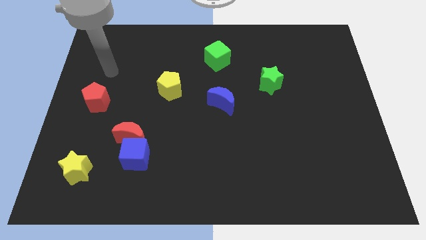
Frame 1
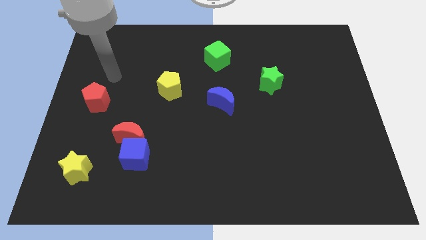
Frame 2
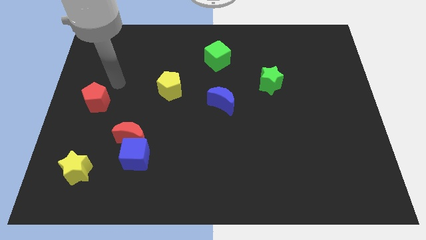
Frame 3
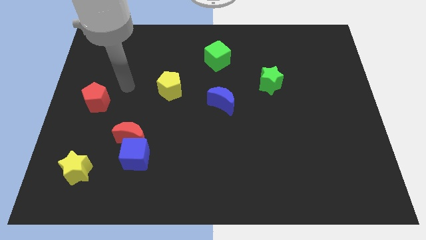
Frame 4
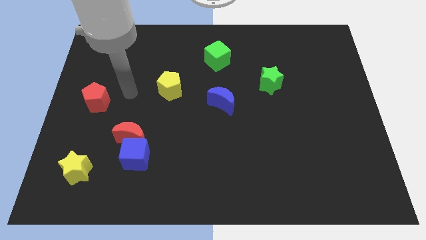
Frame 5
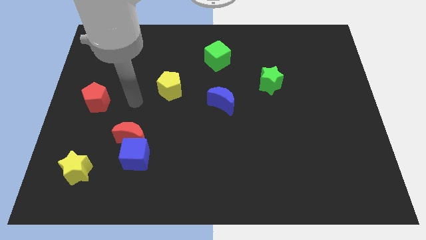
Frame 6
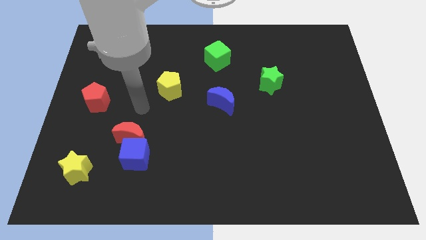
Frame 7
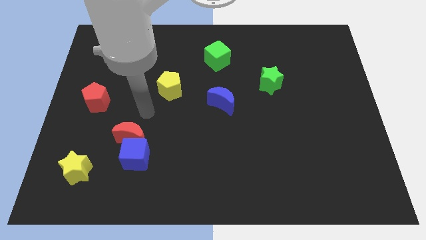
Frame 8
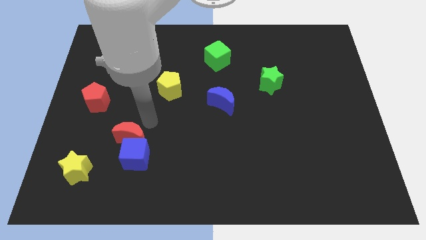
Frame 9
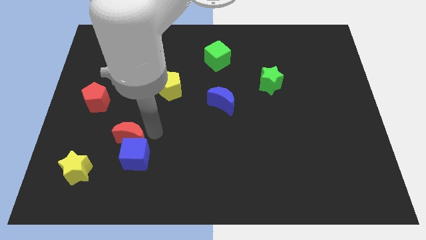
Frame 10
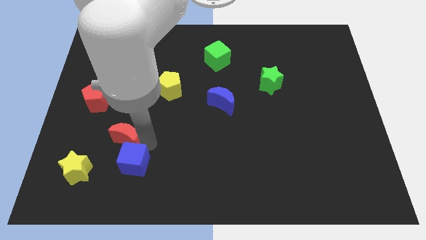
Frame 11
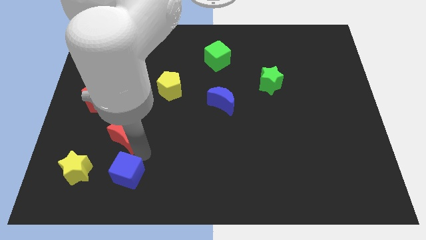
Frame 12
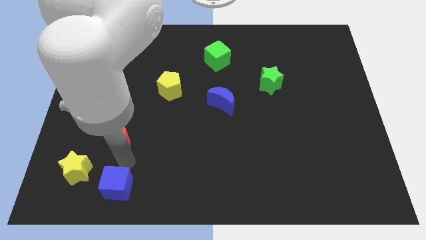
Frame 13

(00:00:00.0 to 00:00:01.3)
move the red moon away from the blue cube

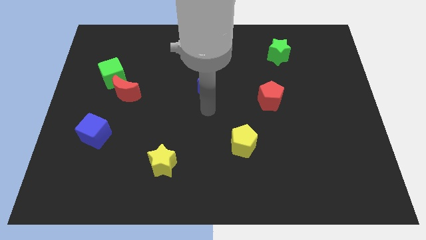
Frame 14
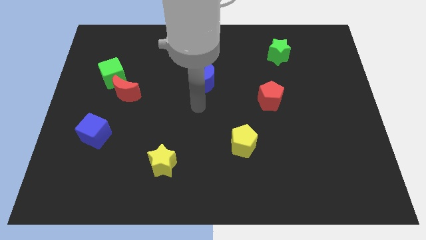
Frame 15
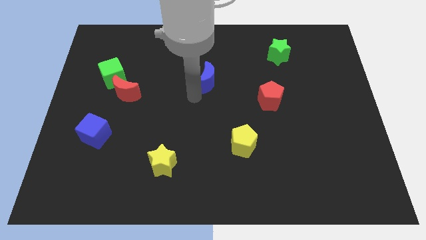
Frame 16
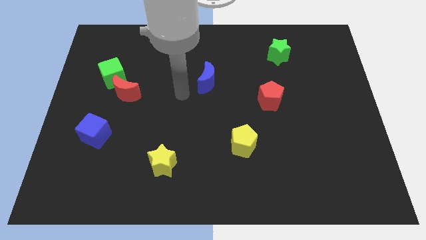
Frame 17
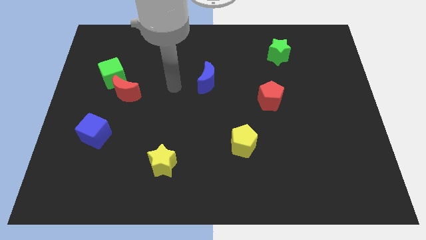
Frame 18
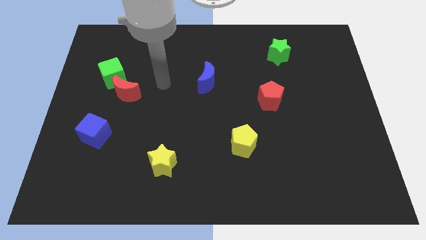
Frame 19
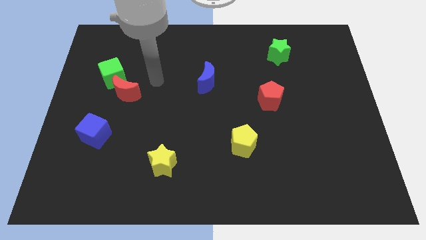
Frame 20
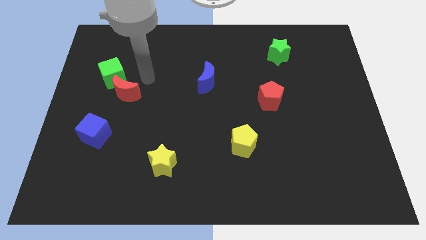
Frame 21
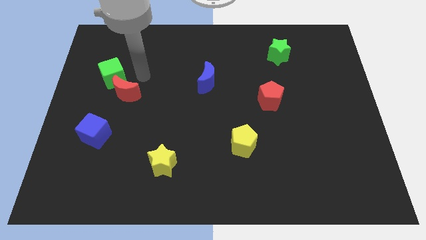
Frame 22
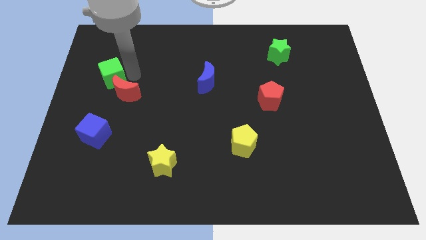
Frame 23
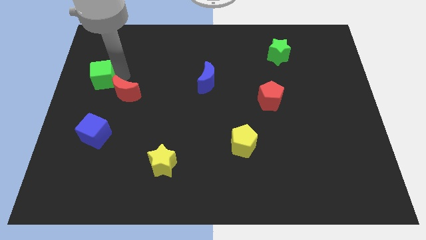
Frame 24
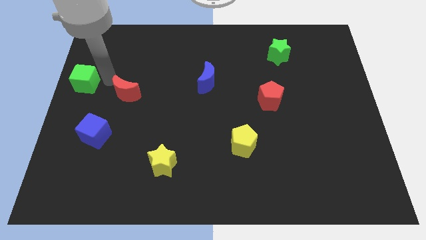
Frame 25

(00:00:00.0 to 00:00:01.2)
move the red moon away from the green cube

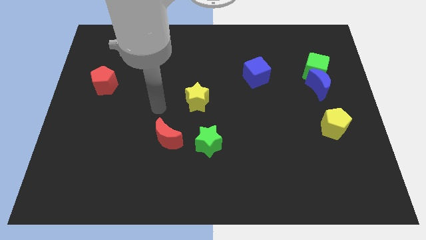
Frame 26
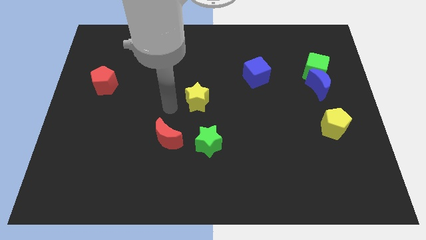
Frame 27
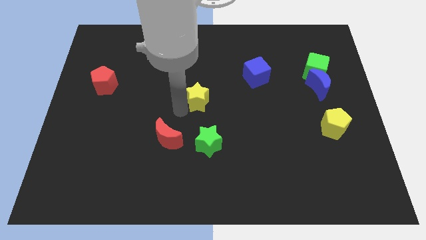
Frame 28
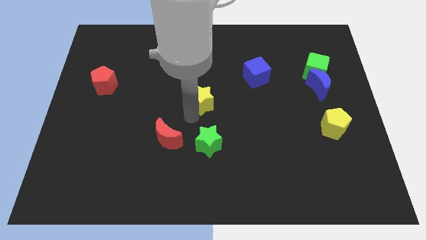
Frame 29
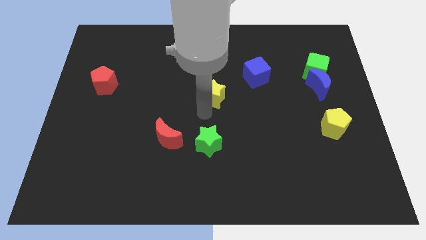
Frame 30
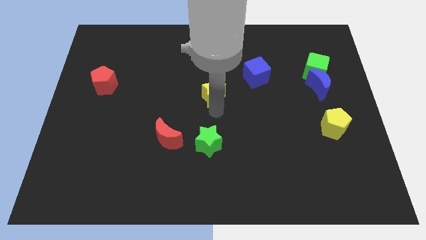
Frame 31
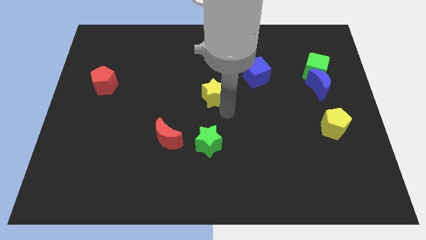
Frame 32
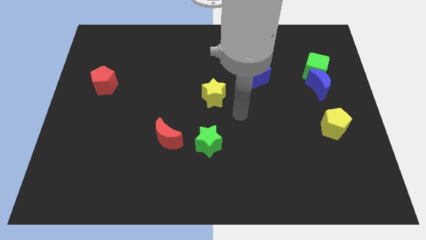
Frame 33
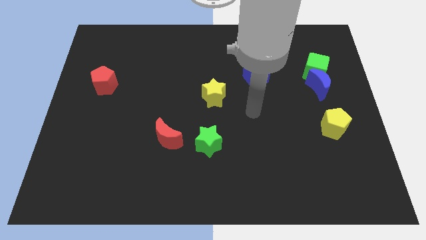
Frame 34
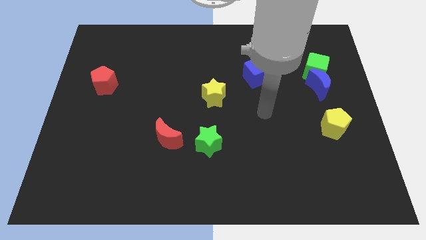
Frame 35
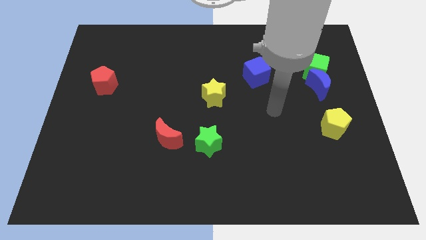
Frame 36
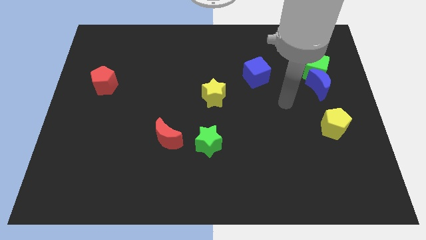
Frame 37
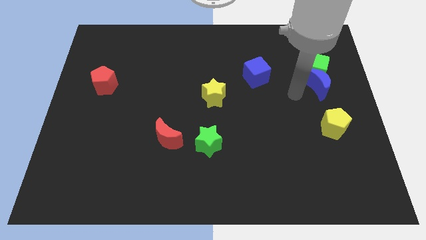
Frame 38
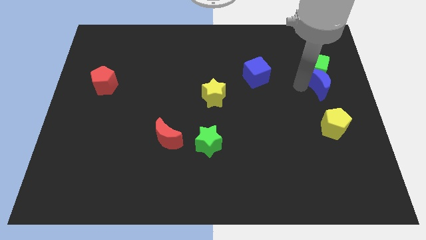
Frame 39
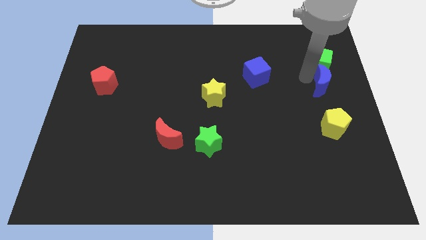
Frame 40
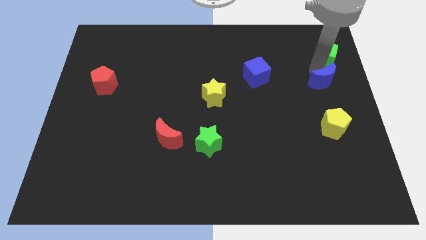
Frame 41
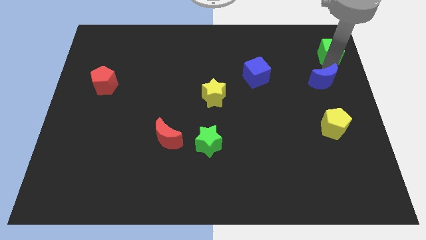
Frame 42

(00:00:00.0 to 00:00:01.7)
separate the blue moon from the green cube

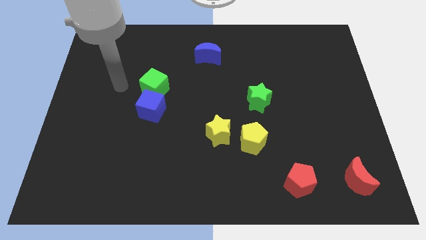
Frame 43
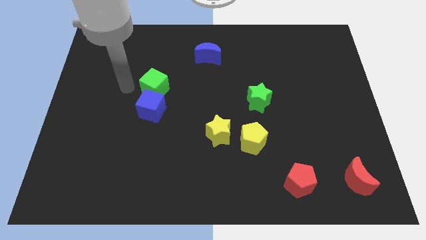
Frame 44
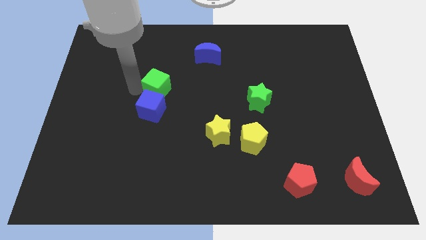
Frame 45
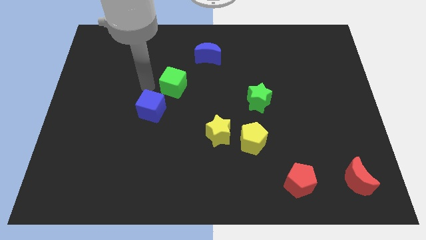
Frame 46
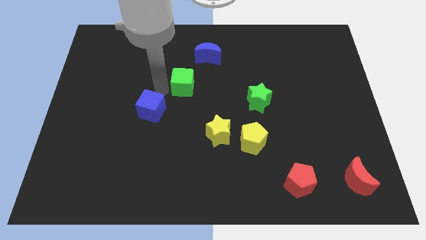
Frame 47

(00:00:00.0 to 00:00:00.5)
separate the blue cube from the green cube

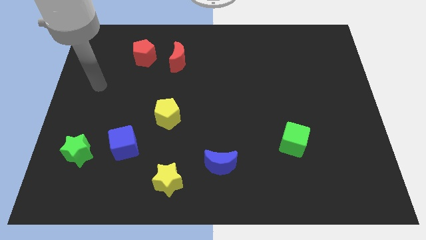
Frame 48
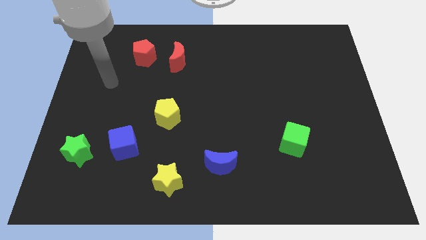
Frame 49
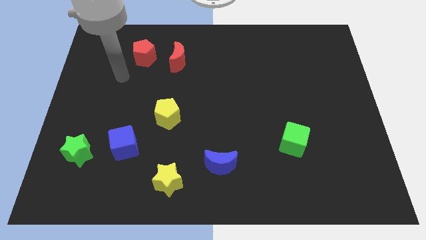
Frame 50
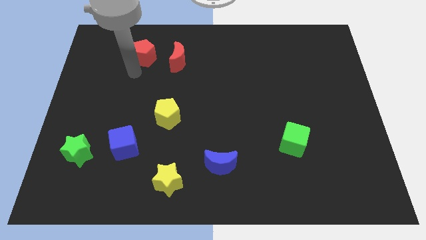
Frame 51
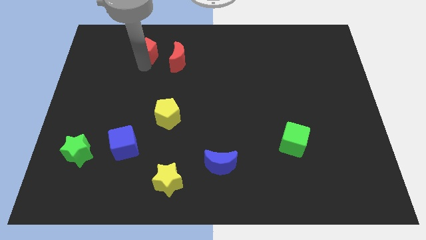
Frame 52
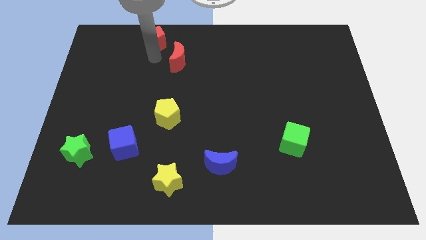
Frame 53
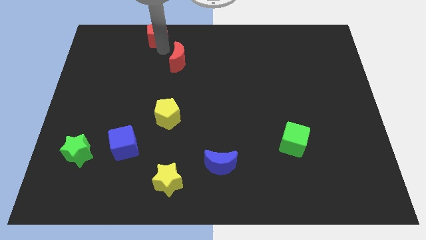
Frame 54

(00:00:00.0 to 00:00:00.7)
separate the red moon from the red pentagon

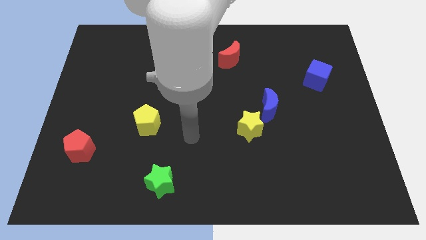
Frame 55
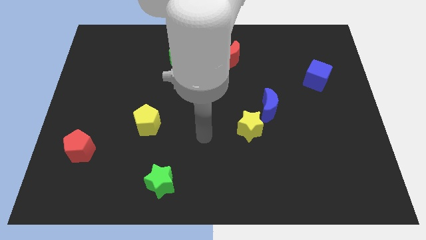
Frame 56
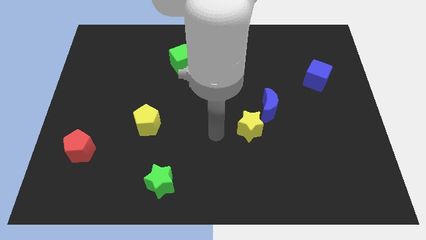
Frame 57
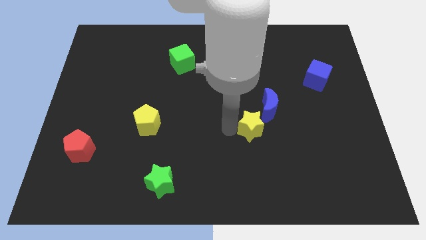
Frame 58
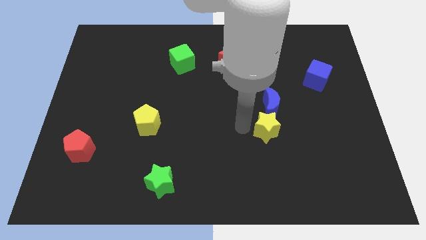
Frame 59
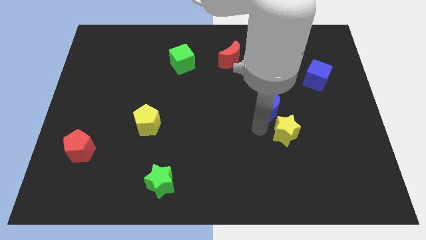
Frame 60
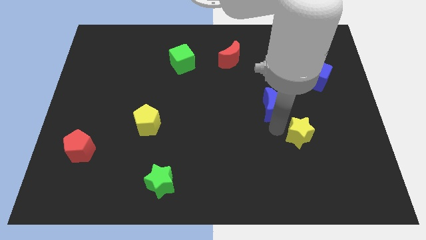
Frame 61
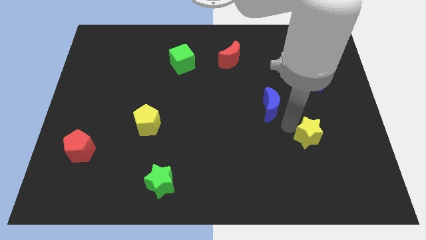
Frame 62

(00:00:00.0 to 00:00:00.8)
move the blue moon away from the yellow star

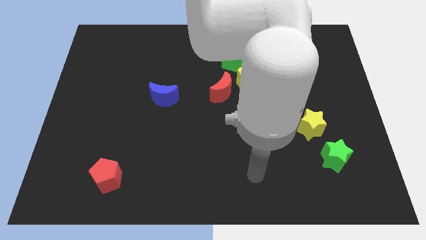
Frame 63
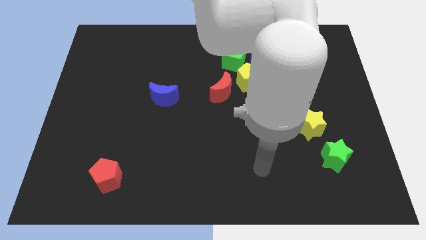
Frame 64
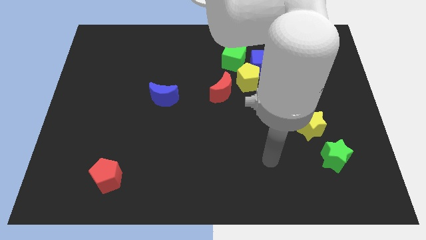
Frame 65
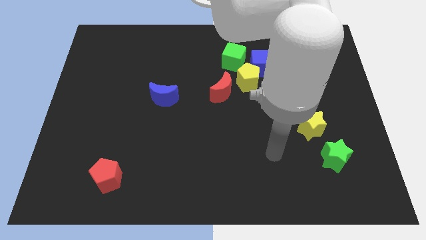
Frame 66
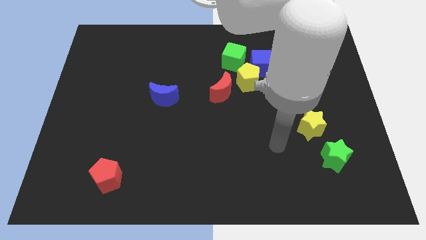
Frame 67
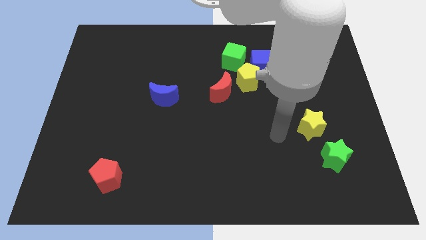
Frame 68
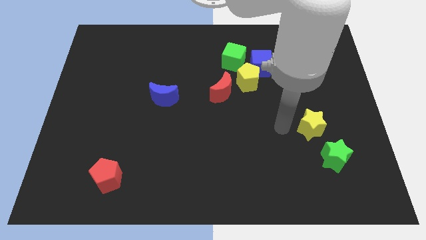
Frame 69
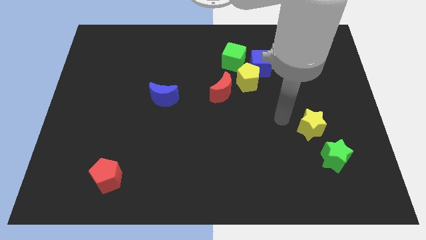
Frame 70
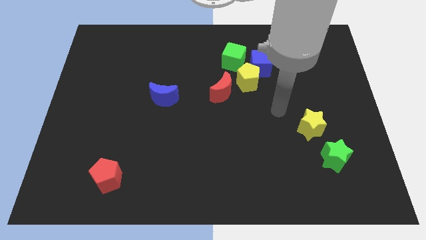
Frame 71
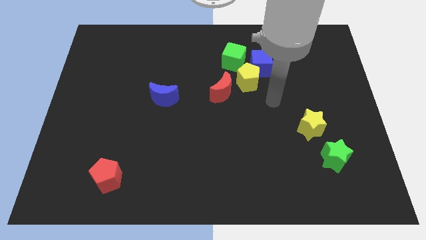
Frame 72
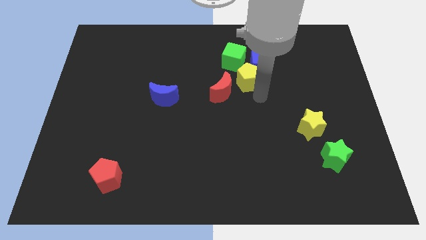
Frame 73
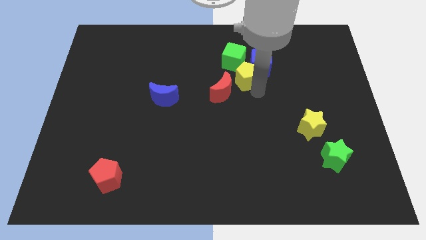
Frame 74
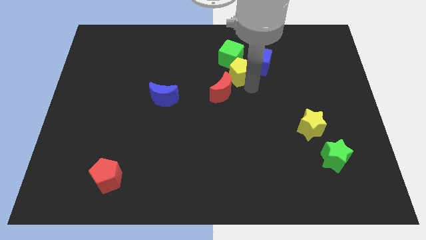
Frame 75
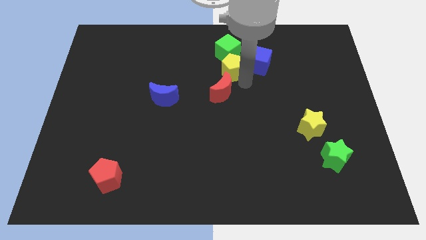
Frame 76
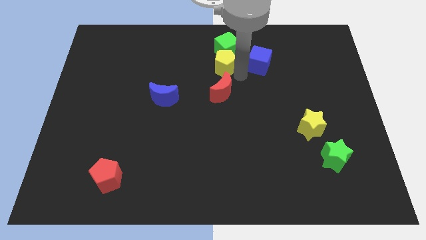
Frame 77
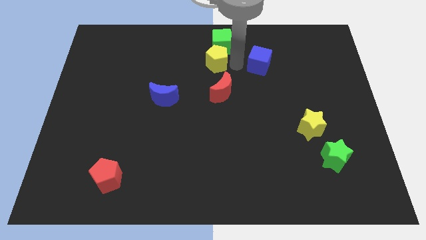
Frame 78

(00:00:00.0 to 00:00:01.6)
pull the blue cube apart from the yellow pentagon and green cube

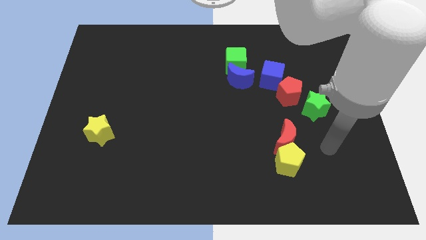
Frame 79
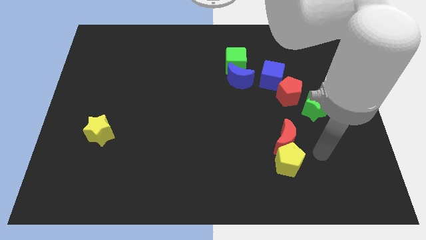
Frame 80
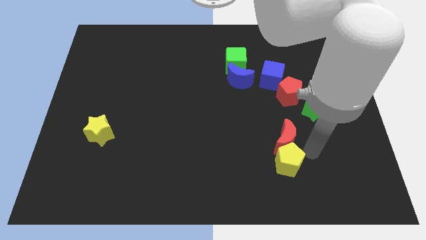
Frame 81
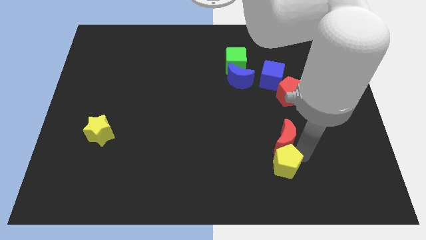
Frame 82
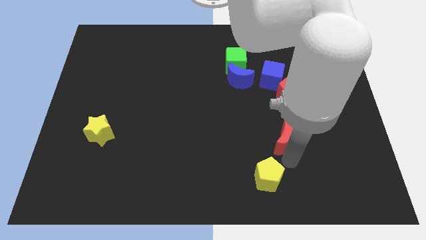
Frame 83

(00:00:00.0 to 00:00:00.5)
separate the red moon from the yellow pentagon

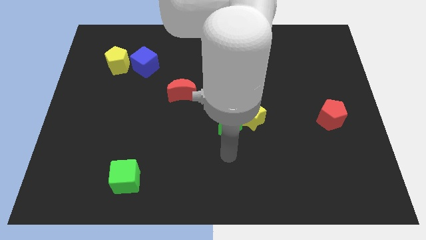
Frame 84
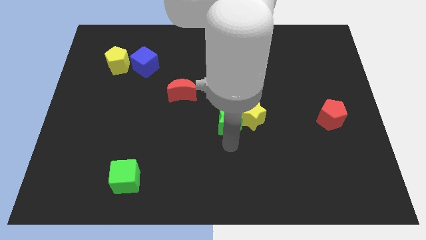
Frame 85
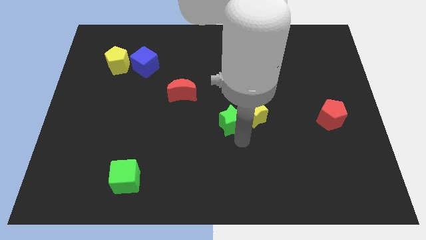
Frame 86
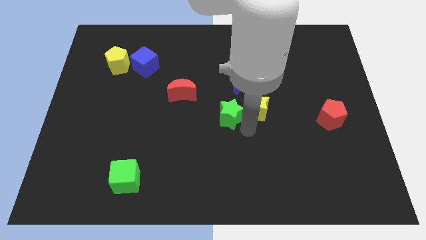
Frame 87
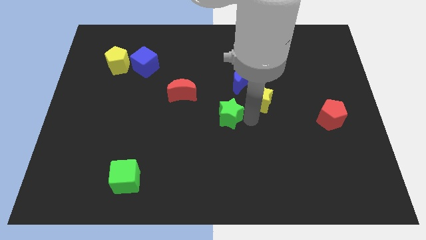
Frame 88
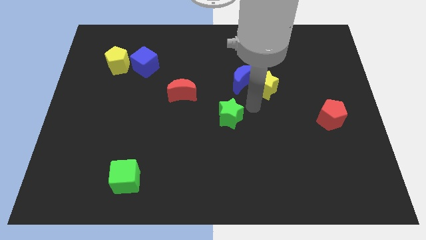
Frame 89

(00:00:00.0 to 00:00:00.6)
move the green star away from the yellow star

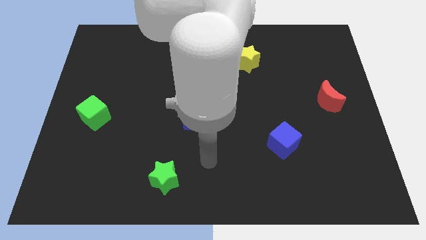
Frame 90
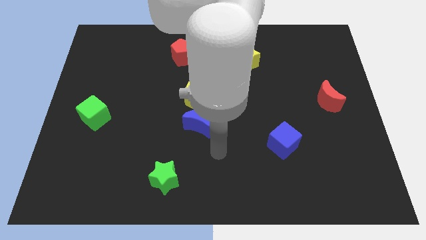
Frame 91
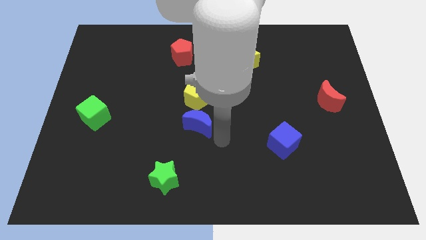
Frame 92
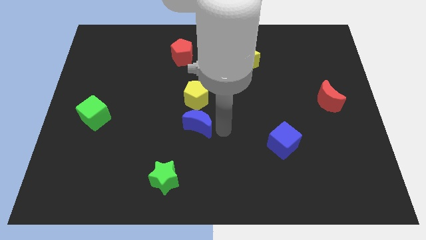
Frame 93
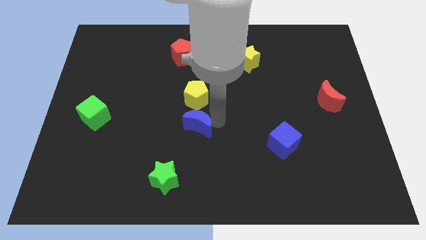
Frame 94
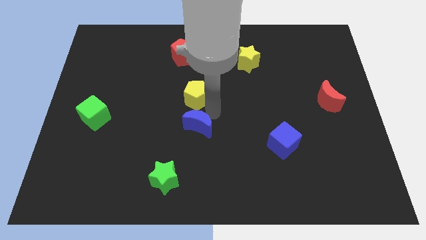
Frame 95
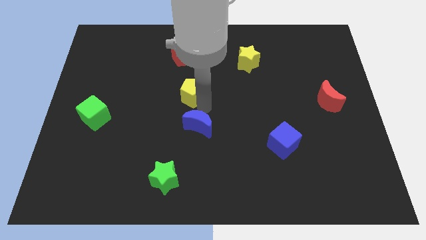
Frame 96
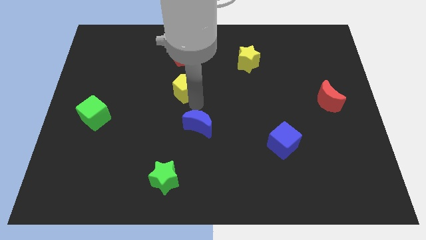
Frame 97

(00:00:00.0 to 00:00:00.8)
pull the blue moon apart from the yellow pentagon
